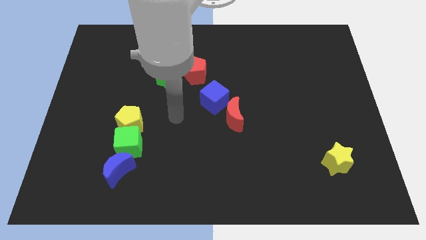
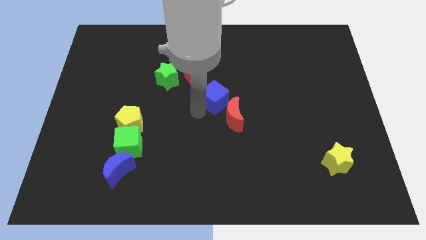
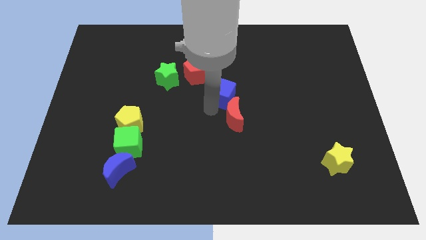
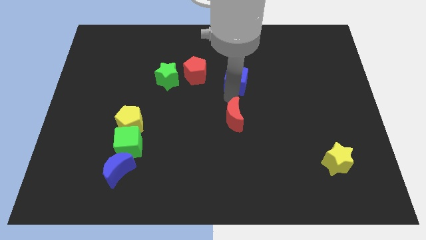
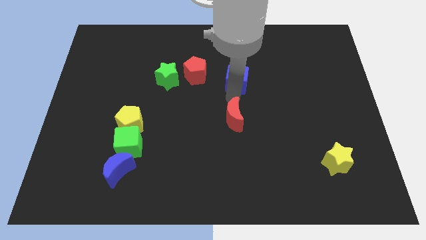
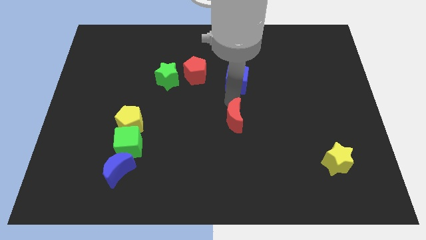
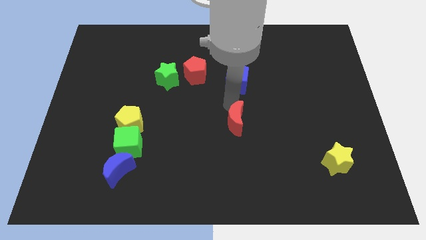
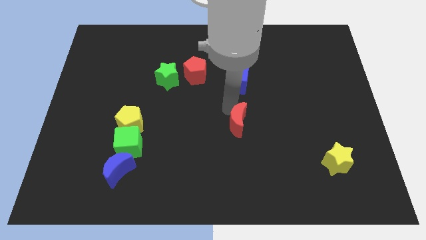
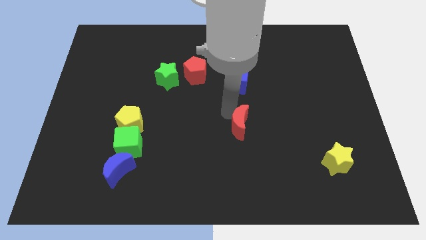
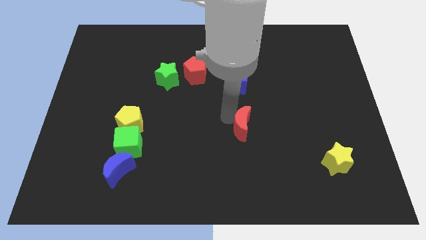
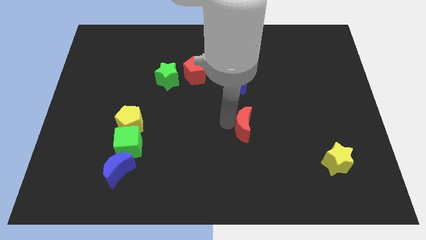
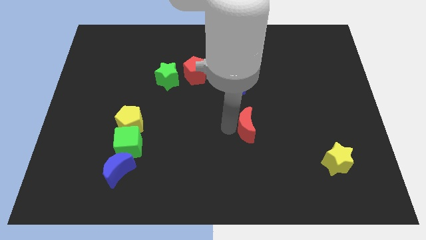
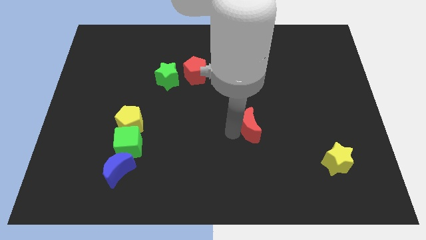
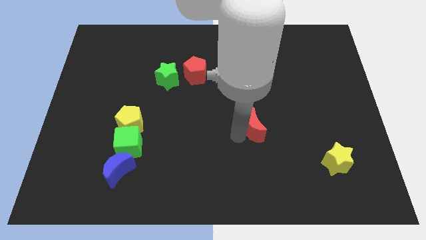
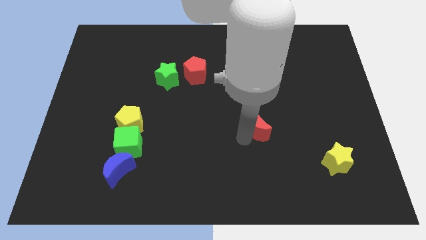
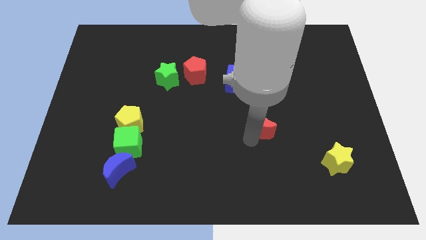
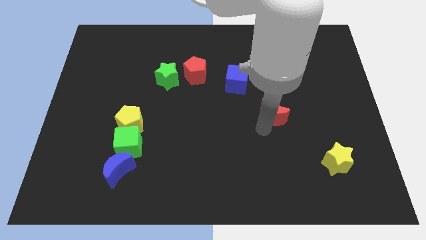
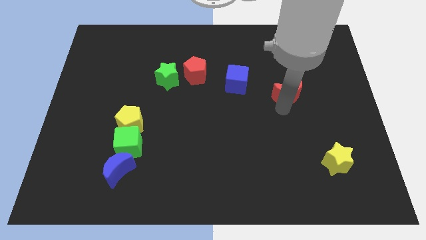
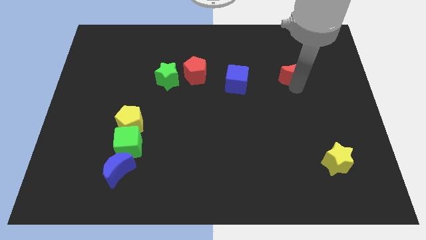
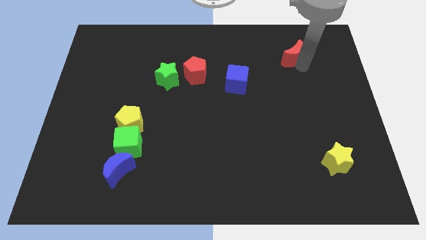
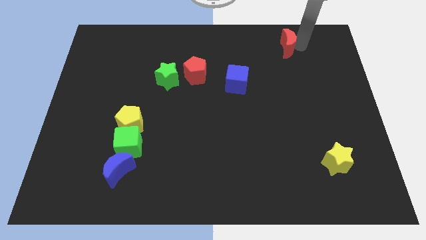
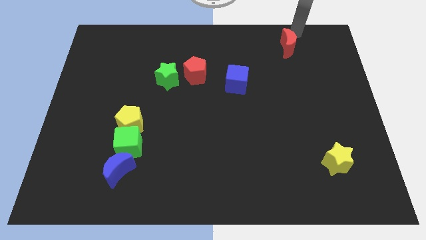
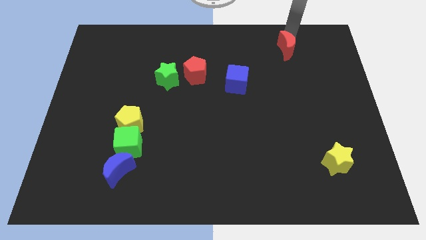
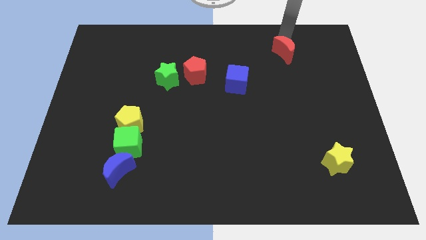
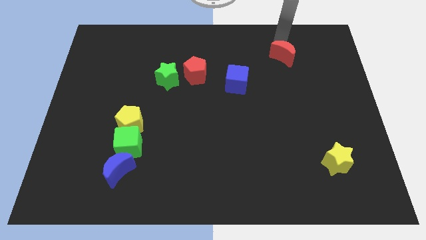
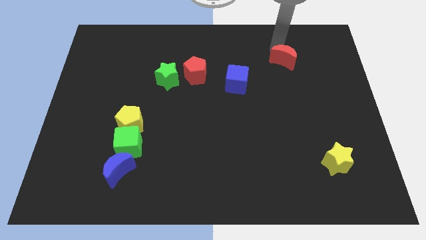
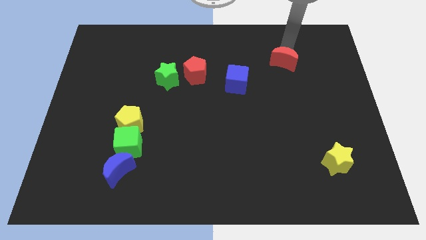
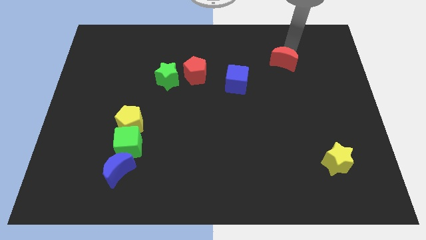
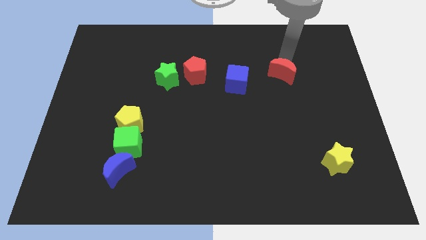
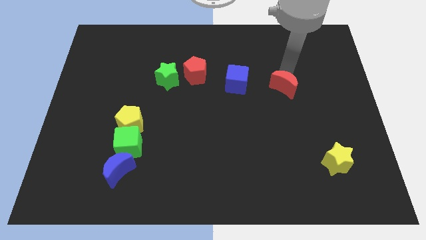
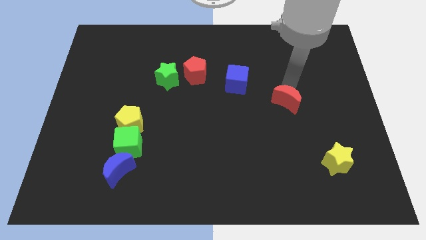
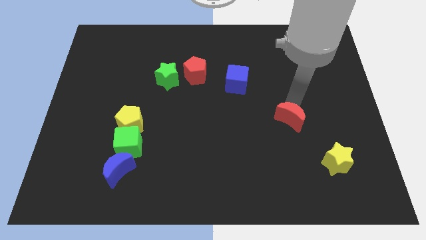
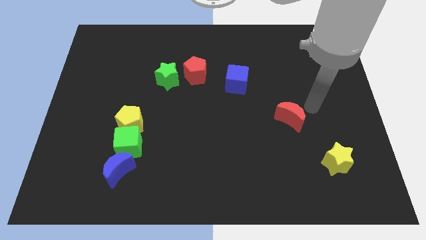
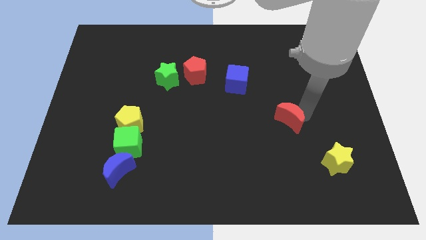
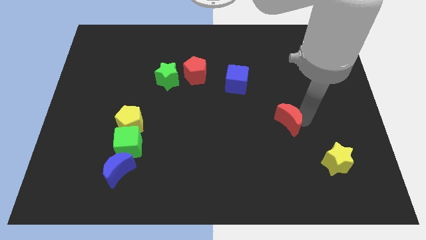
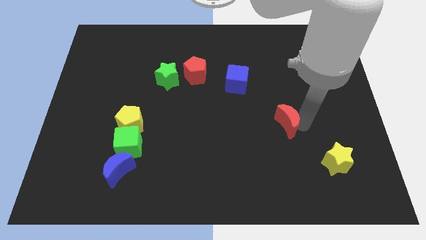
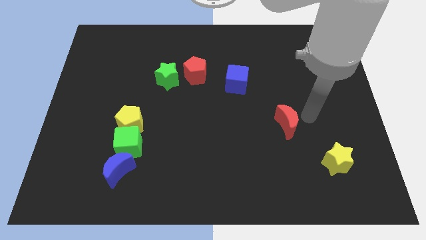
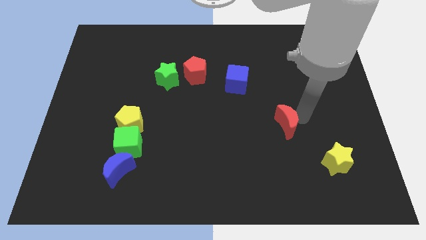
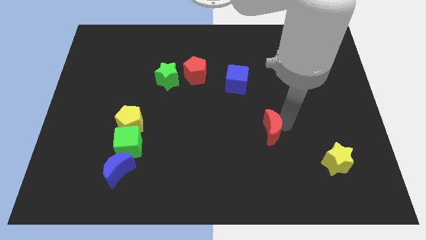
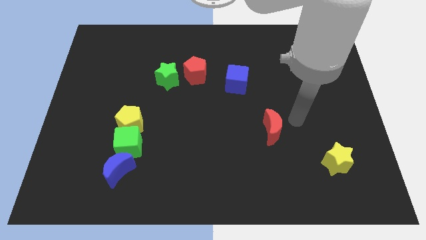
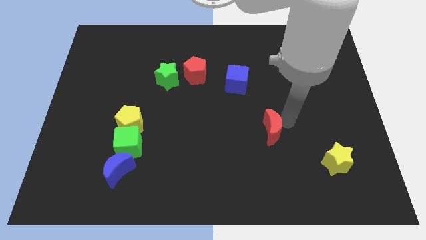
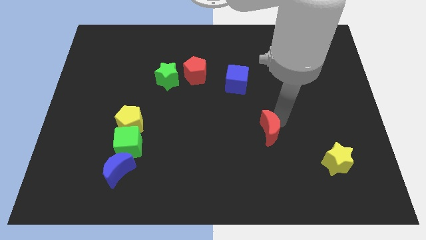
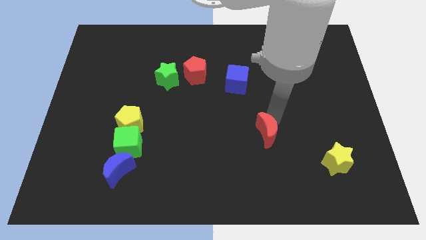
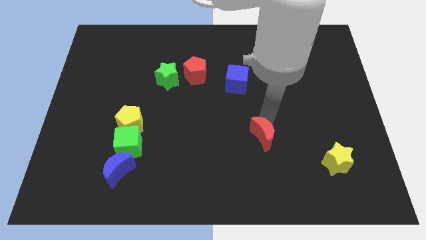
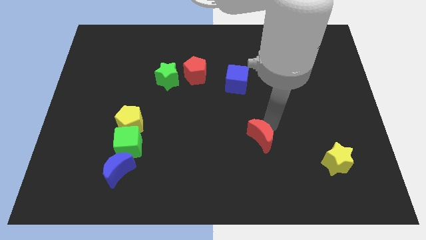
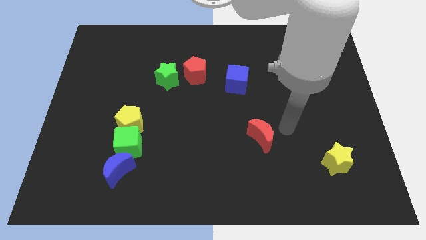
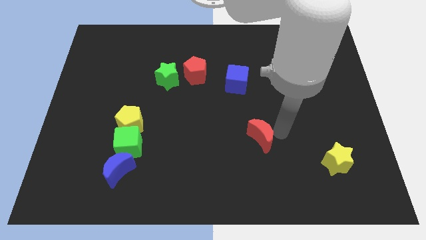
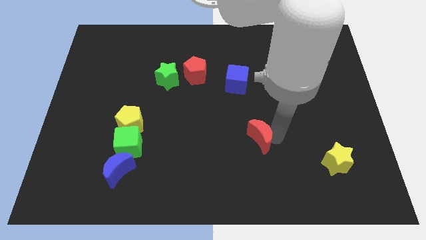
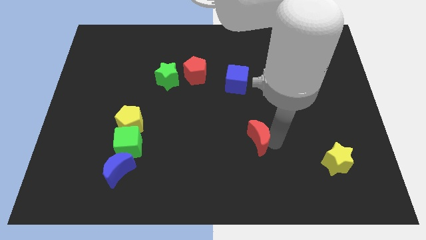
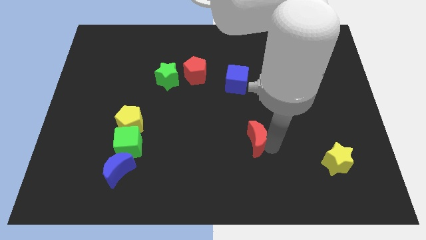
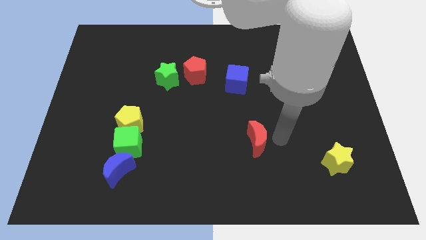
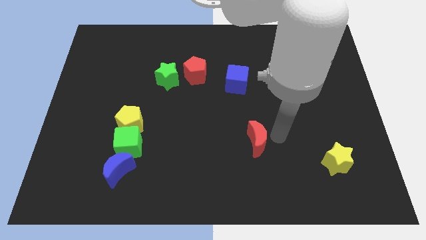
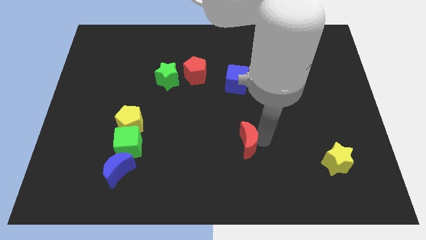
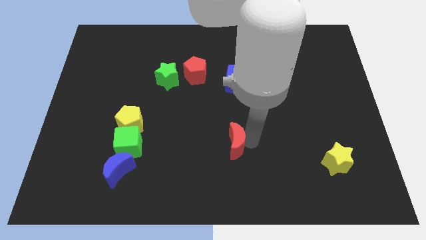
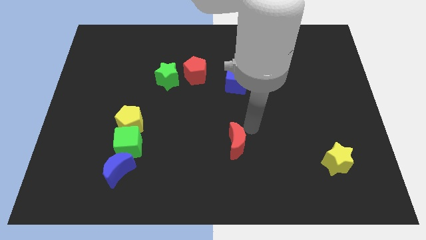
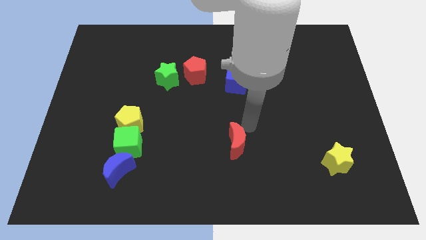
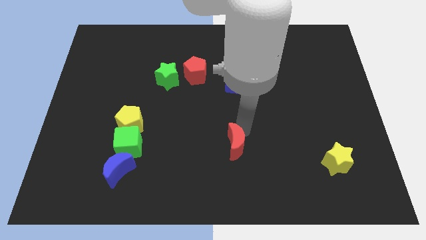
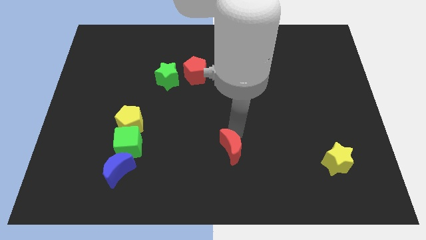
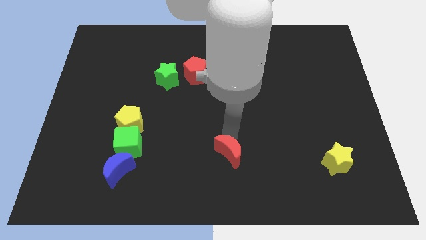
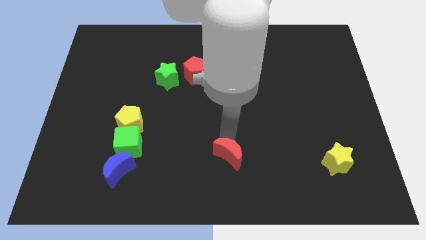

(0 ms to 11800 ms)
move the red moon to the bottom
